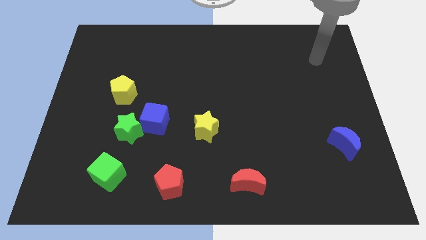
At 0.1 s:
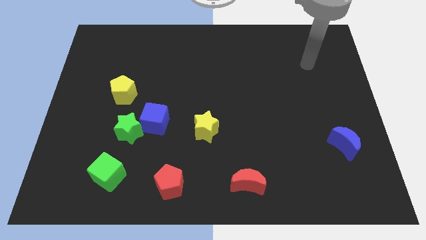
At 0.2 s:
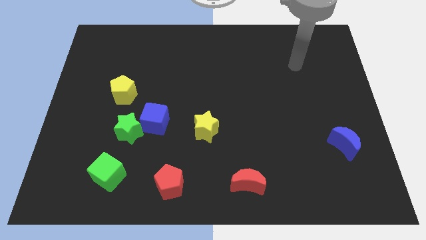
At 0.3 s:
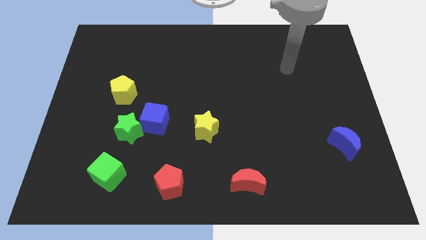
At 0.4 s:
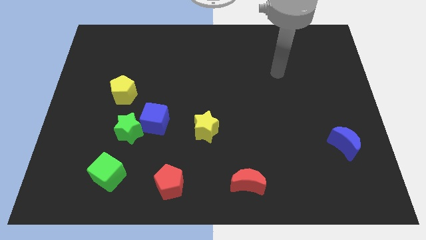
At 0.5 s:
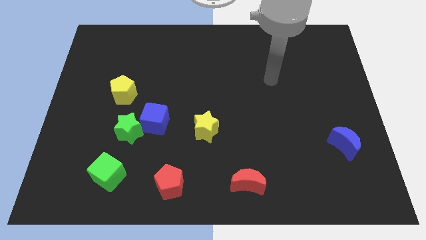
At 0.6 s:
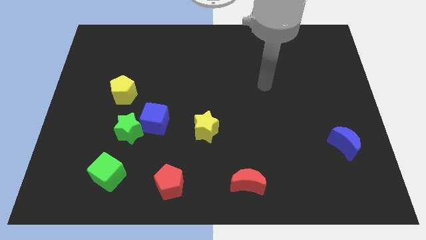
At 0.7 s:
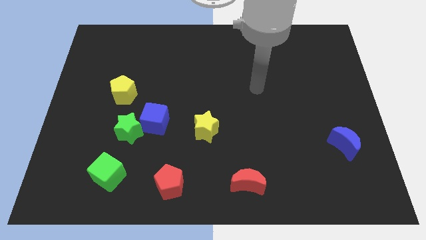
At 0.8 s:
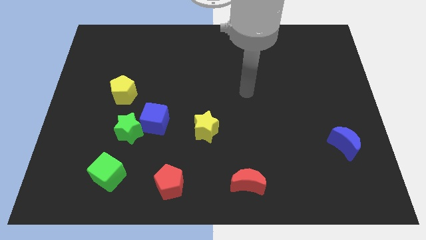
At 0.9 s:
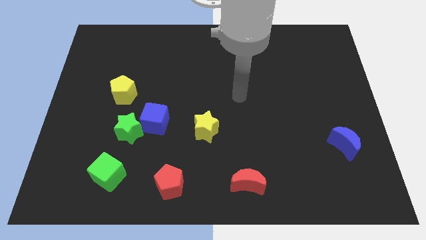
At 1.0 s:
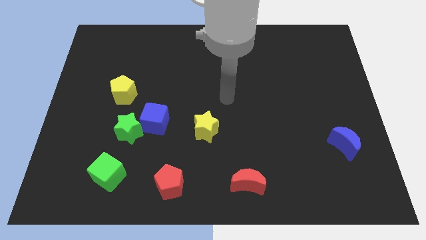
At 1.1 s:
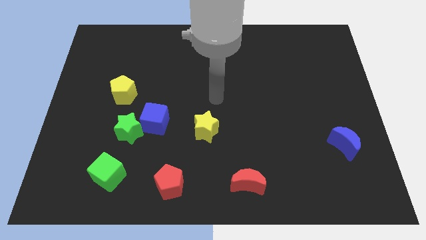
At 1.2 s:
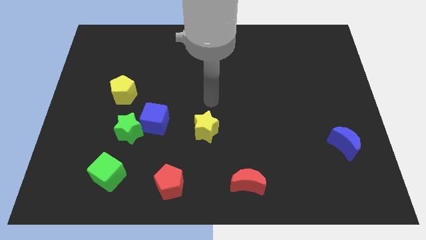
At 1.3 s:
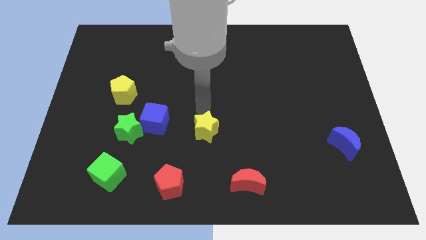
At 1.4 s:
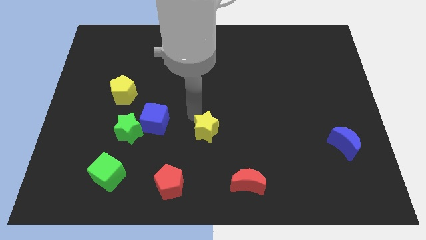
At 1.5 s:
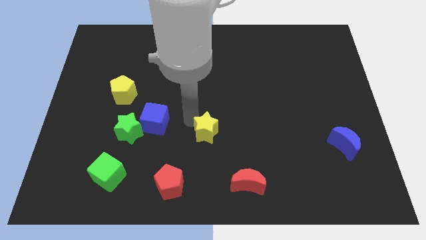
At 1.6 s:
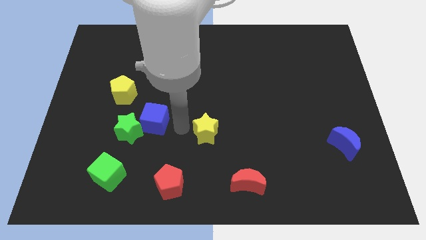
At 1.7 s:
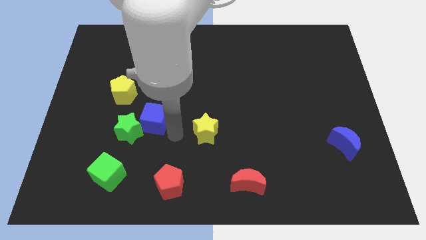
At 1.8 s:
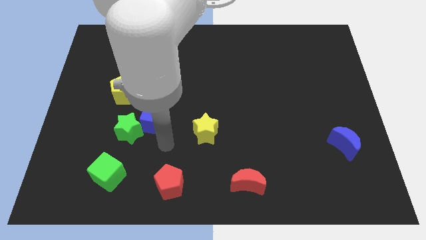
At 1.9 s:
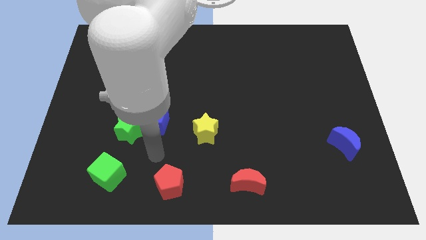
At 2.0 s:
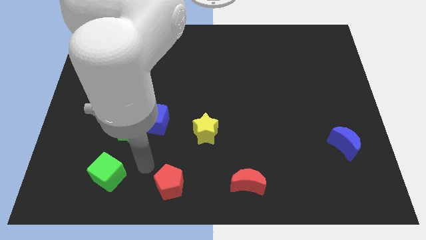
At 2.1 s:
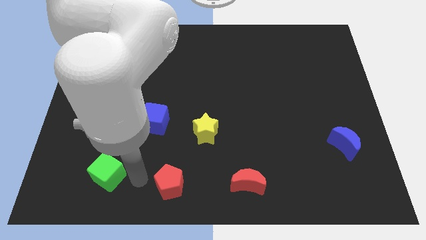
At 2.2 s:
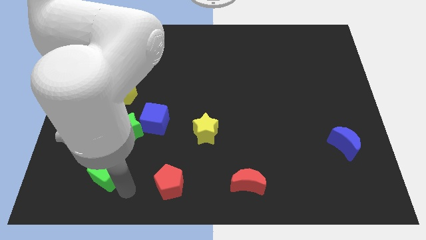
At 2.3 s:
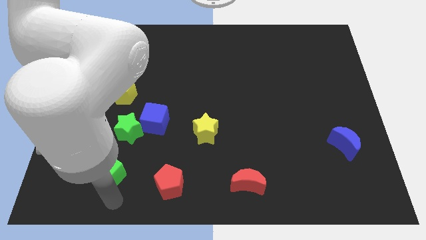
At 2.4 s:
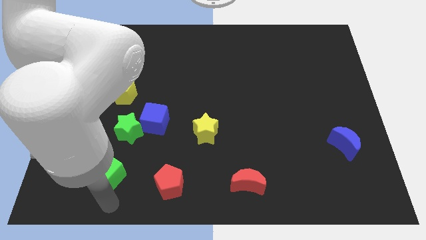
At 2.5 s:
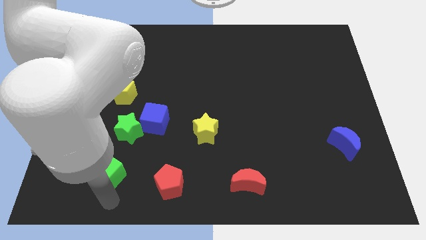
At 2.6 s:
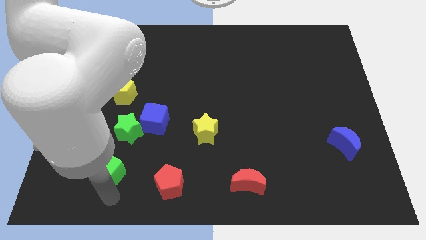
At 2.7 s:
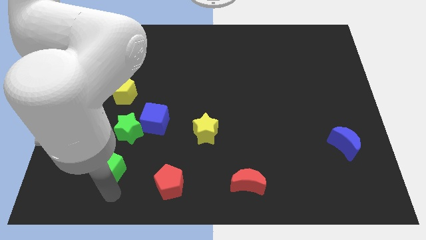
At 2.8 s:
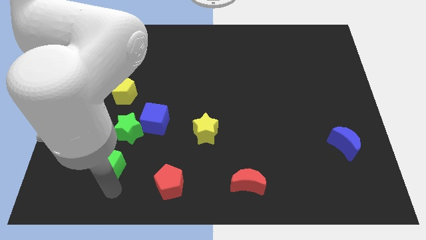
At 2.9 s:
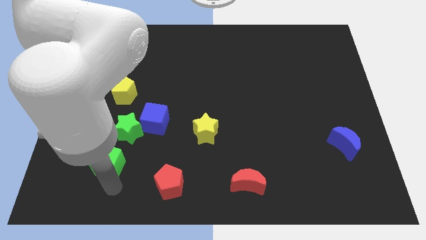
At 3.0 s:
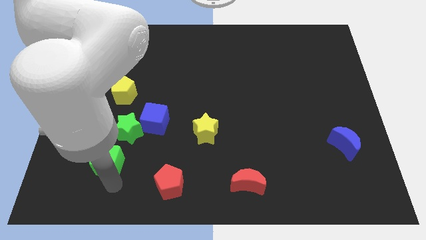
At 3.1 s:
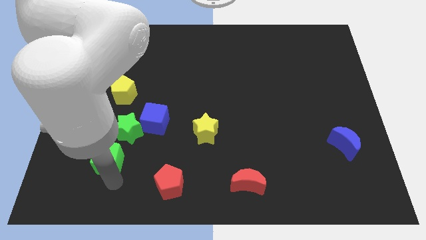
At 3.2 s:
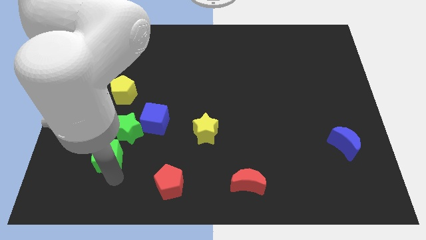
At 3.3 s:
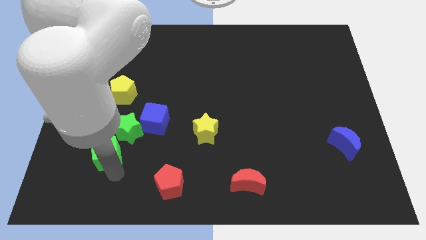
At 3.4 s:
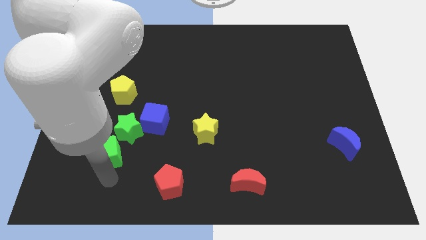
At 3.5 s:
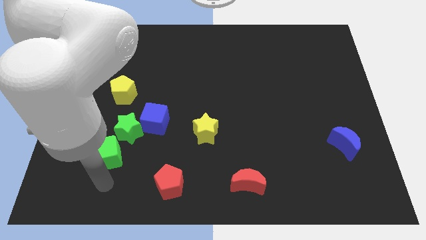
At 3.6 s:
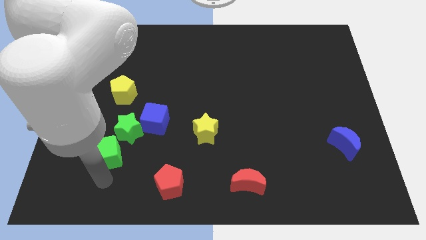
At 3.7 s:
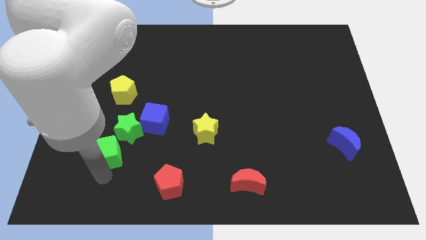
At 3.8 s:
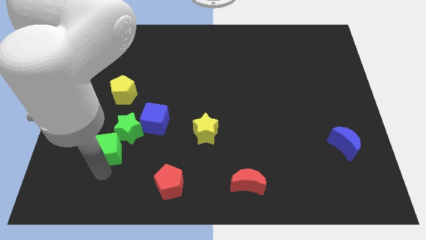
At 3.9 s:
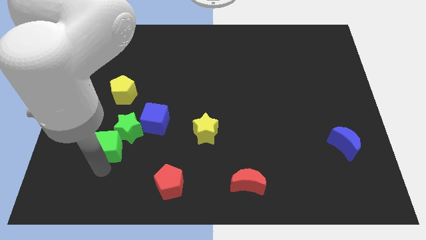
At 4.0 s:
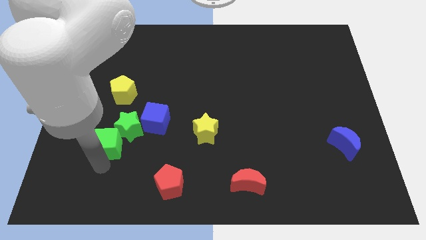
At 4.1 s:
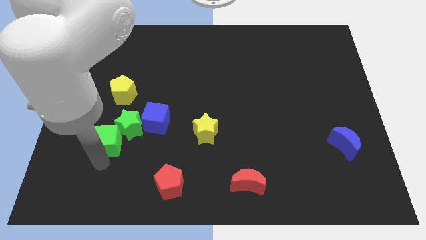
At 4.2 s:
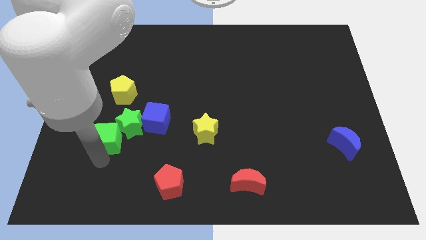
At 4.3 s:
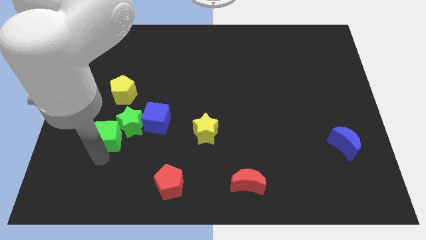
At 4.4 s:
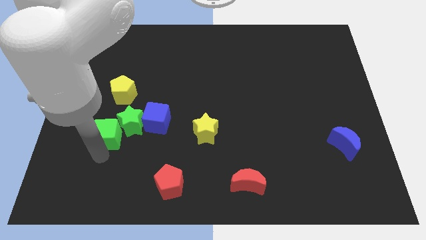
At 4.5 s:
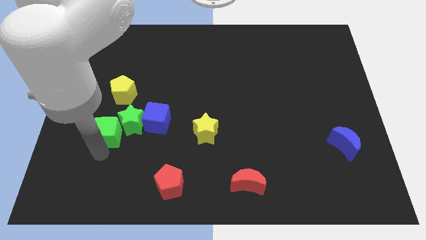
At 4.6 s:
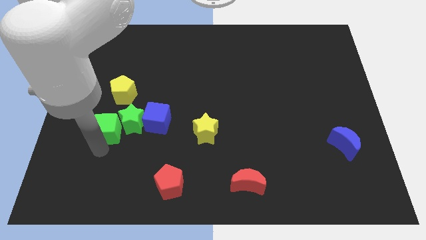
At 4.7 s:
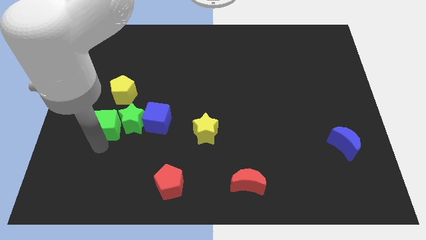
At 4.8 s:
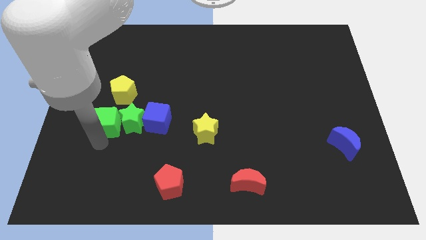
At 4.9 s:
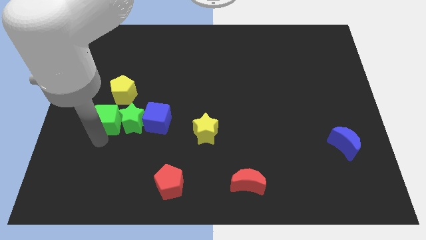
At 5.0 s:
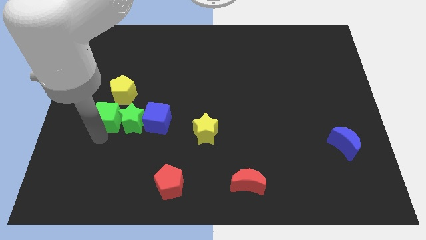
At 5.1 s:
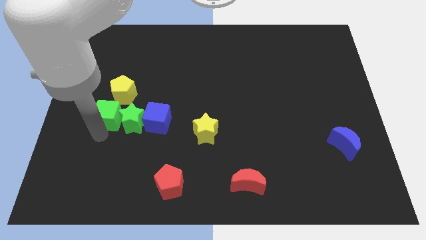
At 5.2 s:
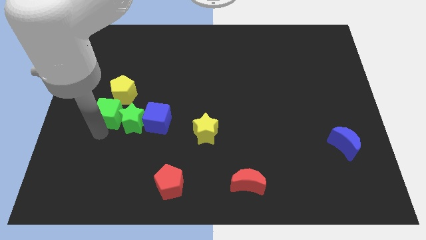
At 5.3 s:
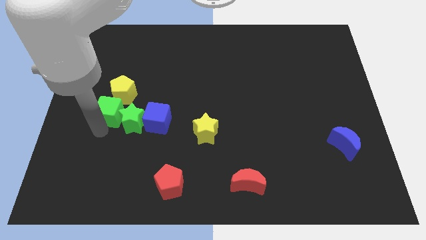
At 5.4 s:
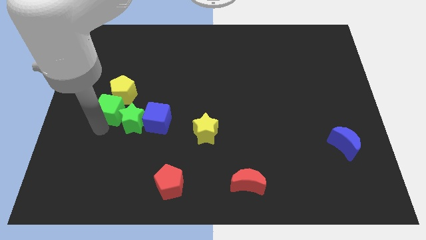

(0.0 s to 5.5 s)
push the green cube to the yellow pentagon

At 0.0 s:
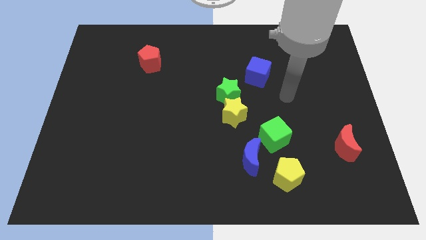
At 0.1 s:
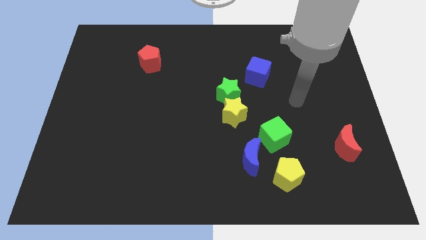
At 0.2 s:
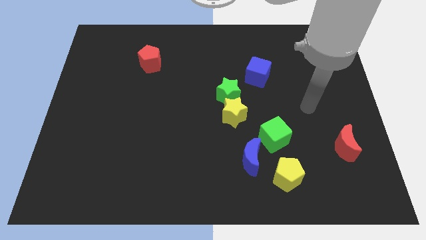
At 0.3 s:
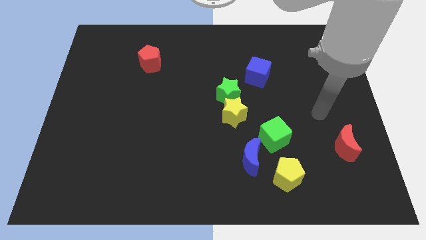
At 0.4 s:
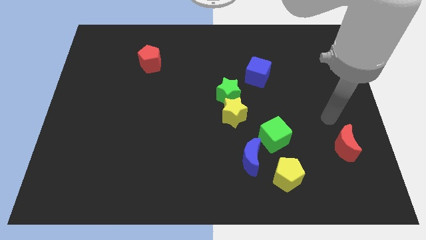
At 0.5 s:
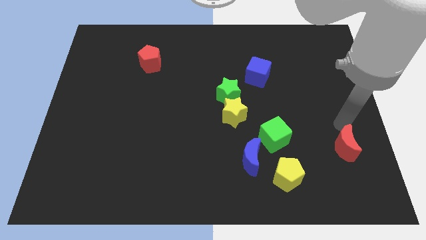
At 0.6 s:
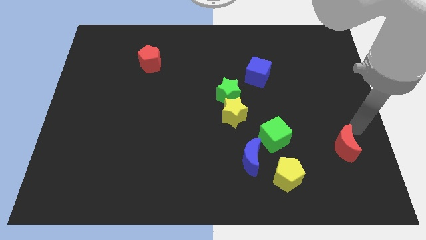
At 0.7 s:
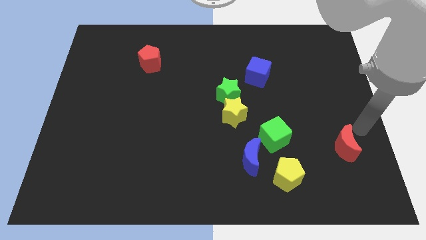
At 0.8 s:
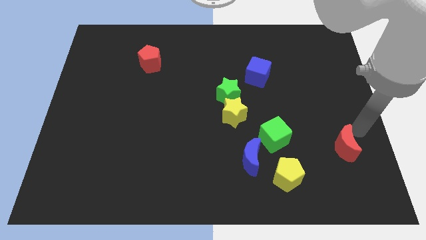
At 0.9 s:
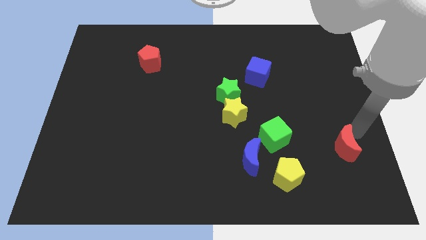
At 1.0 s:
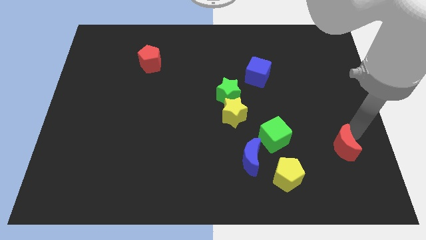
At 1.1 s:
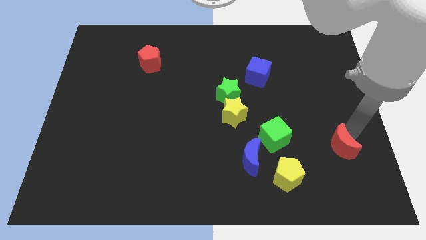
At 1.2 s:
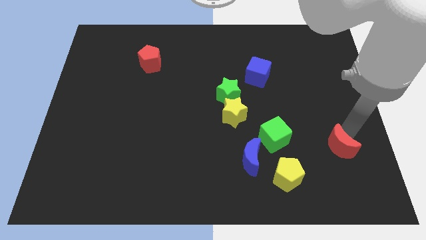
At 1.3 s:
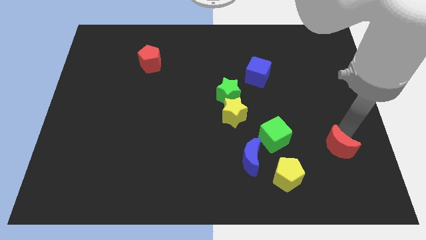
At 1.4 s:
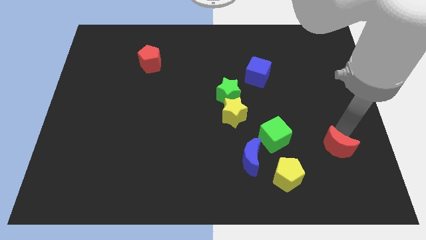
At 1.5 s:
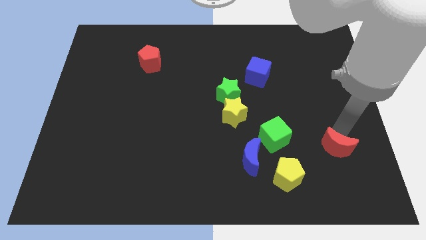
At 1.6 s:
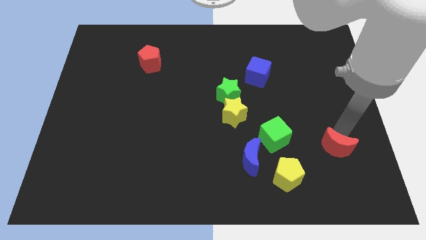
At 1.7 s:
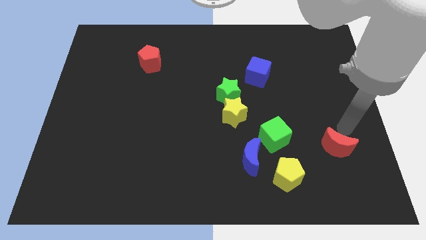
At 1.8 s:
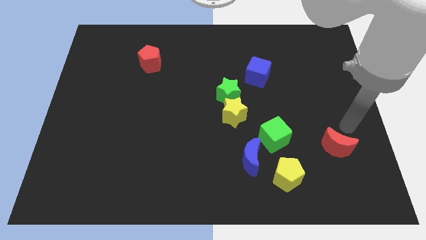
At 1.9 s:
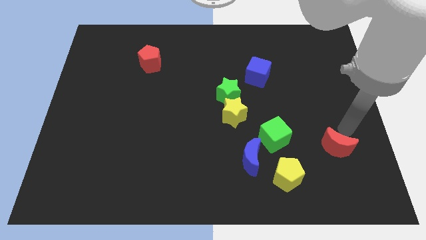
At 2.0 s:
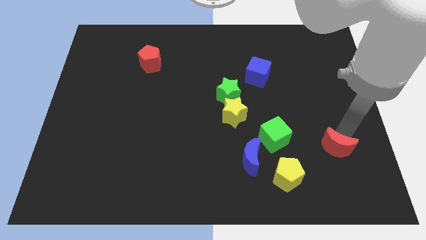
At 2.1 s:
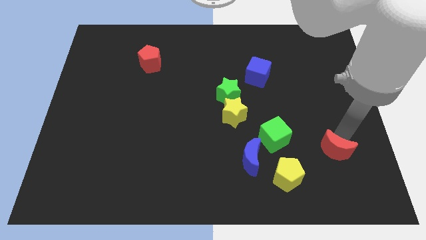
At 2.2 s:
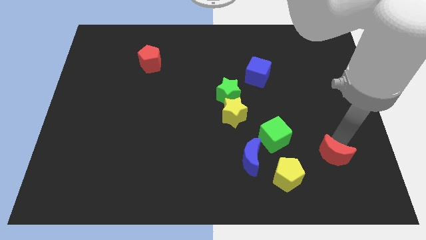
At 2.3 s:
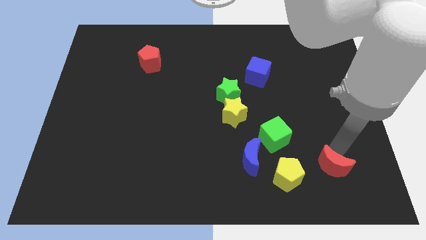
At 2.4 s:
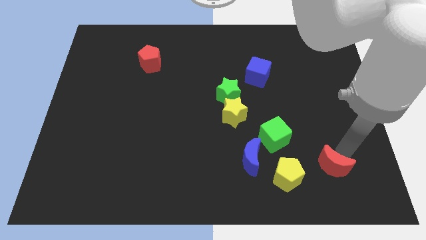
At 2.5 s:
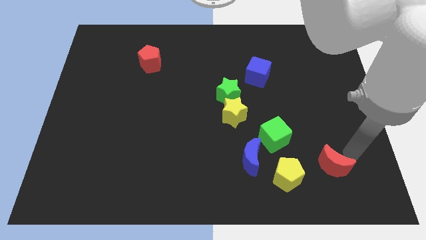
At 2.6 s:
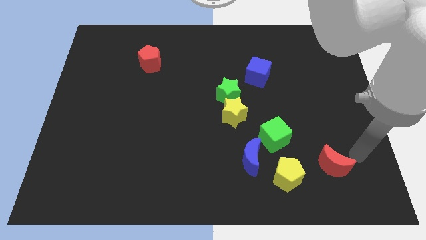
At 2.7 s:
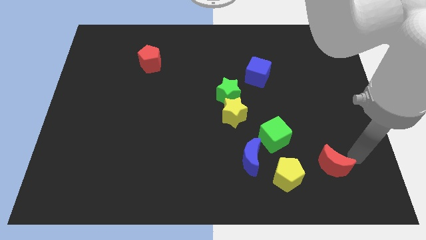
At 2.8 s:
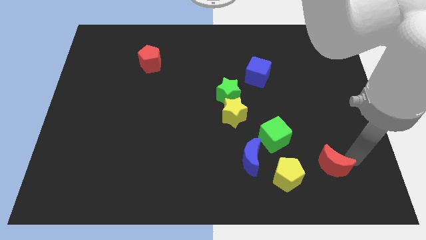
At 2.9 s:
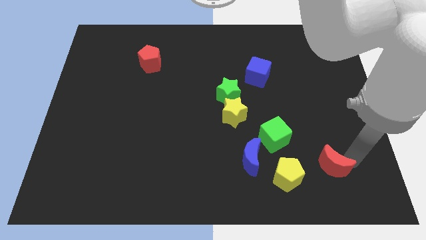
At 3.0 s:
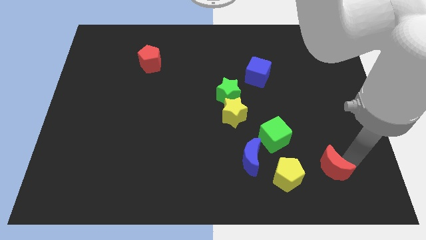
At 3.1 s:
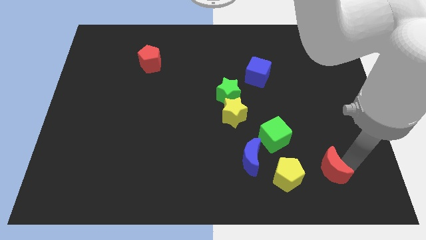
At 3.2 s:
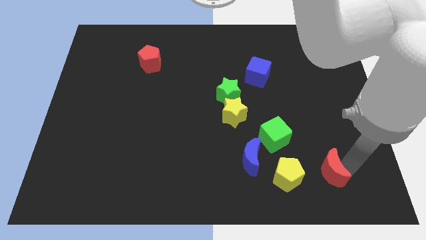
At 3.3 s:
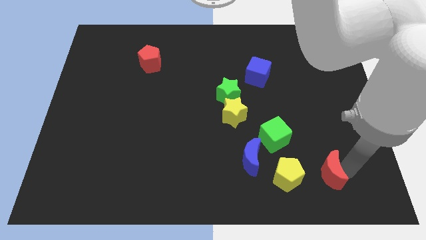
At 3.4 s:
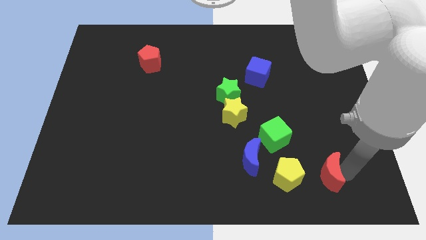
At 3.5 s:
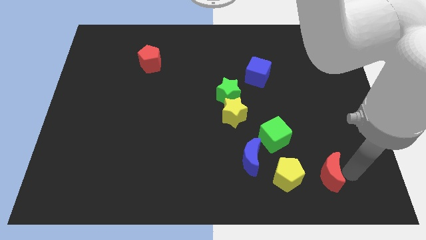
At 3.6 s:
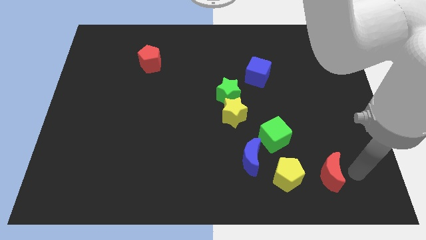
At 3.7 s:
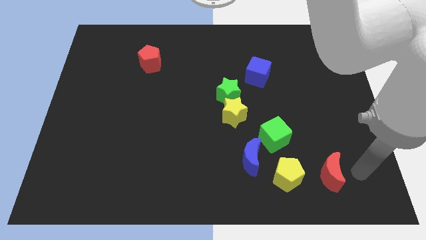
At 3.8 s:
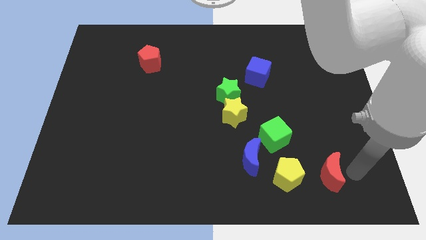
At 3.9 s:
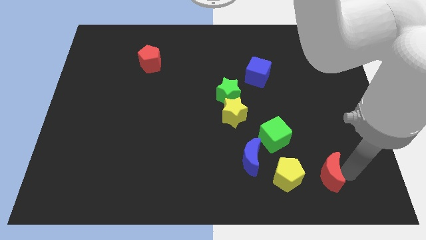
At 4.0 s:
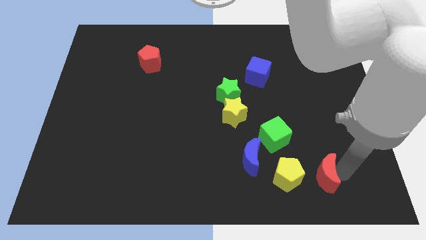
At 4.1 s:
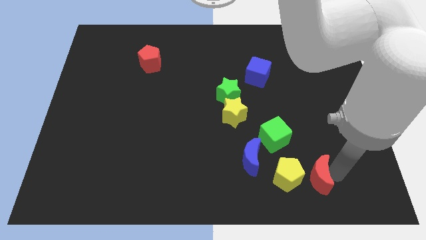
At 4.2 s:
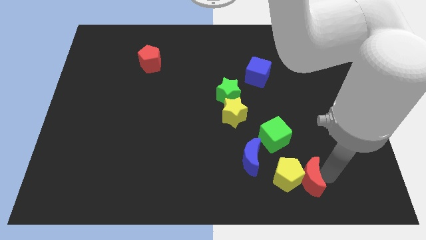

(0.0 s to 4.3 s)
move the red moon close to the yellow pentagon
